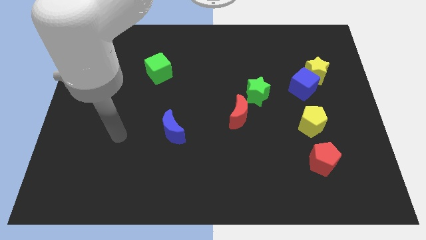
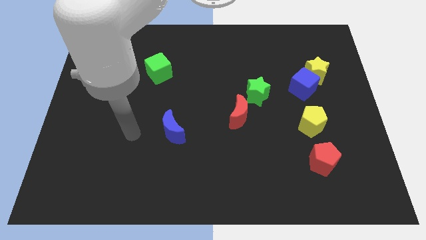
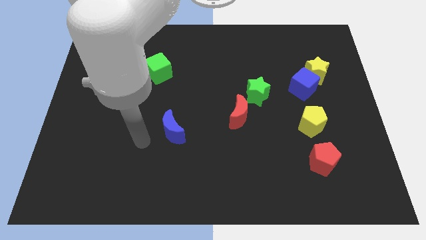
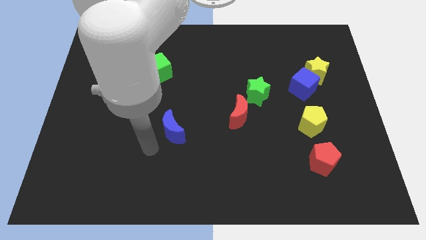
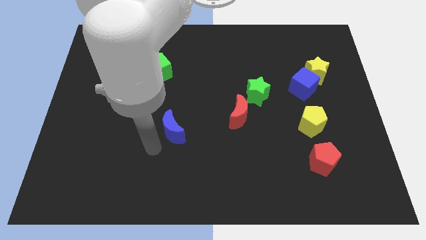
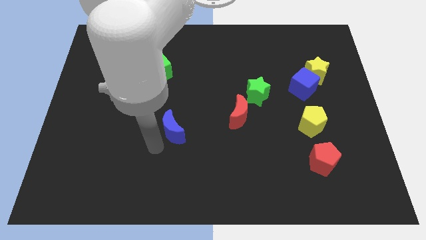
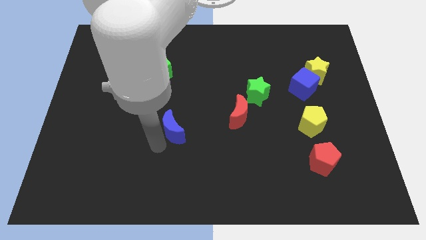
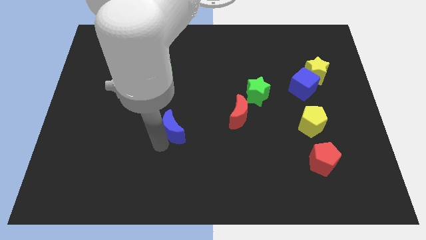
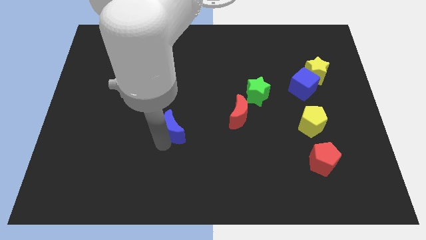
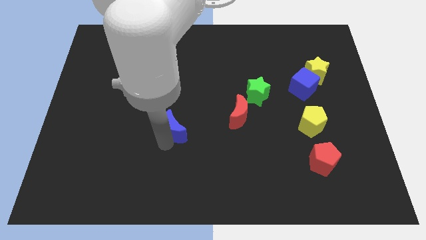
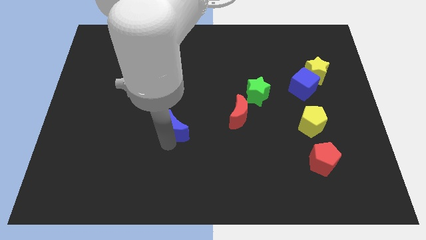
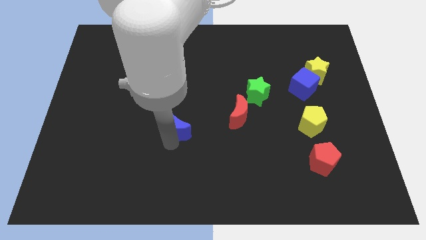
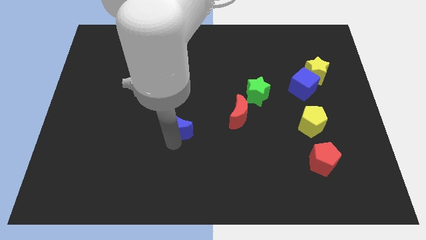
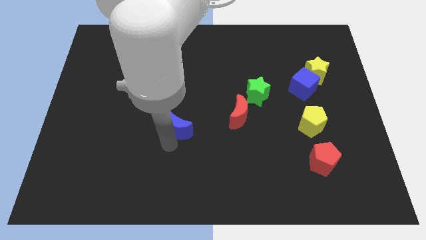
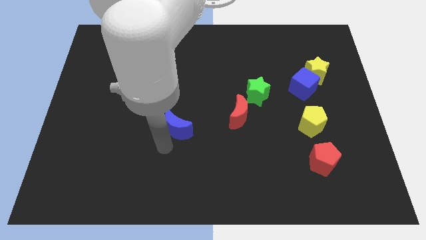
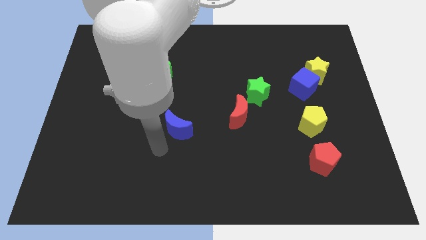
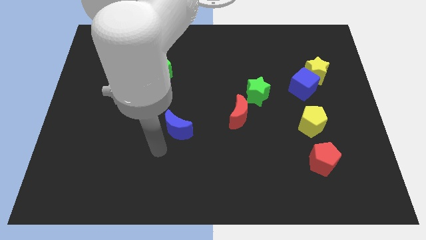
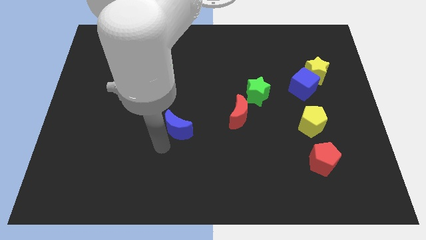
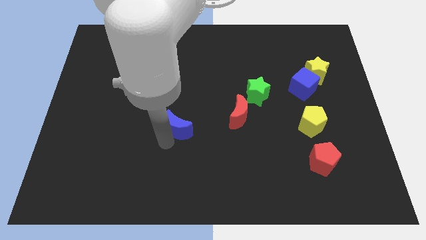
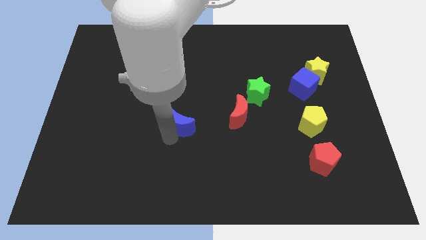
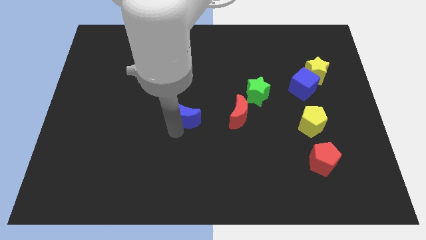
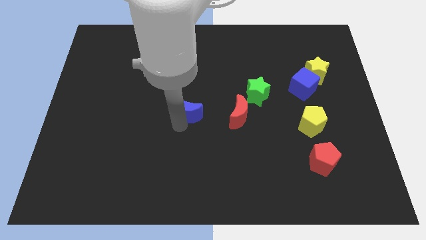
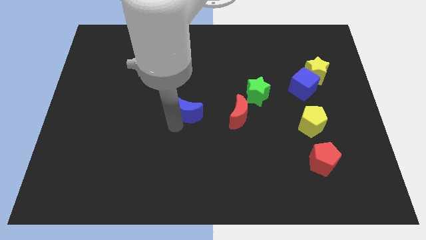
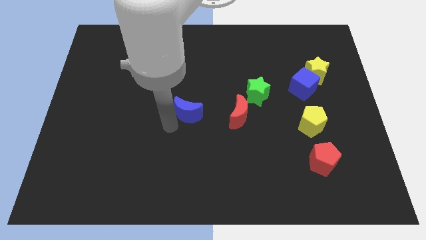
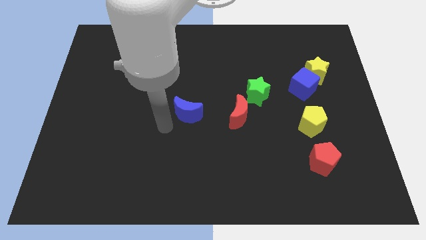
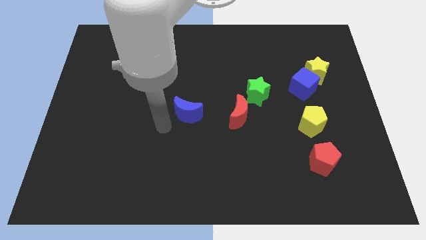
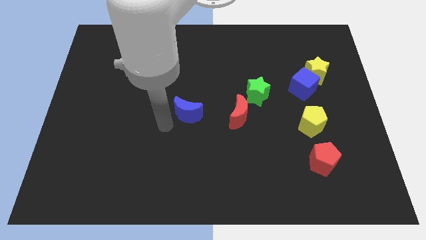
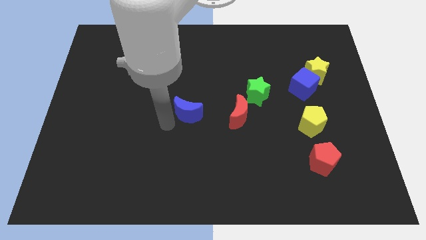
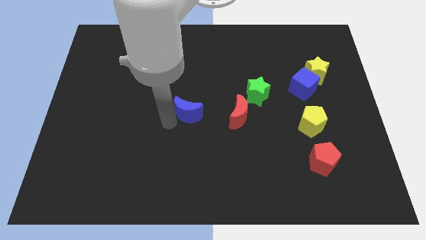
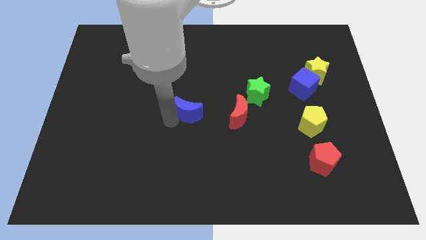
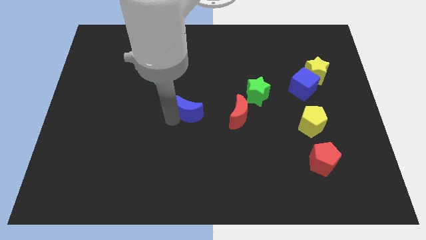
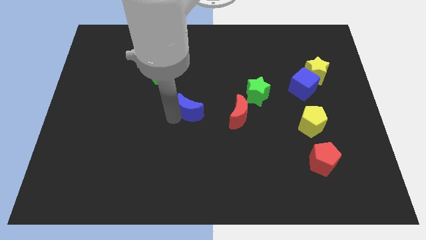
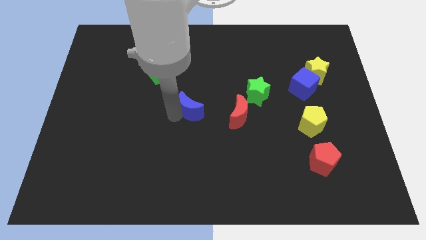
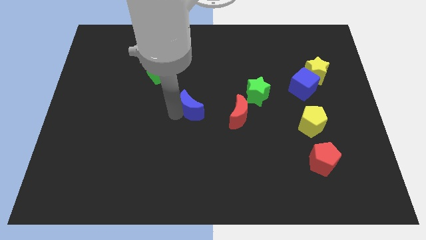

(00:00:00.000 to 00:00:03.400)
move the blue moon slightly diagonally up and right

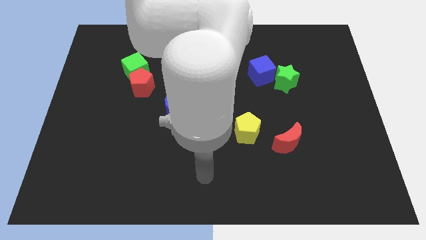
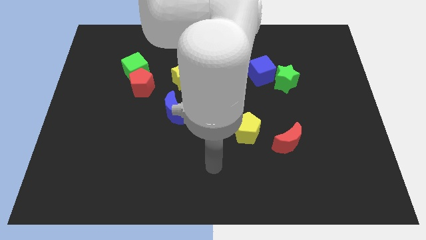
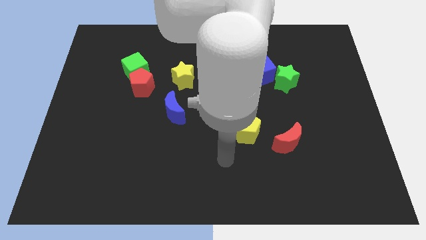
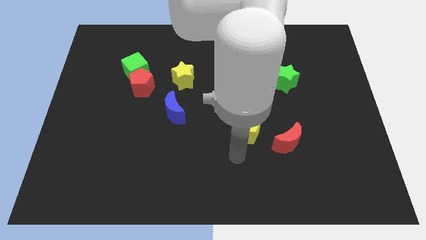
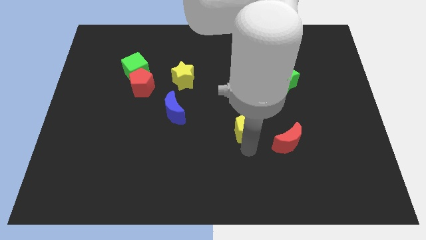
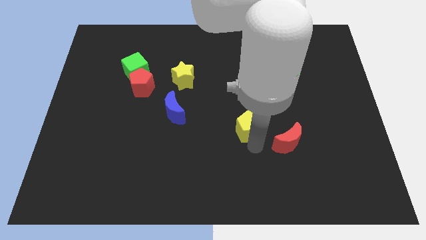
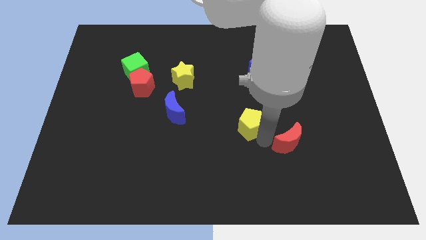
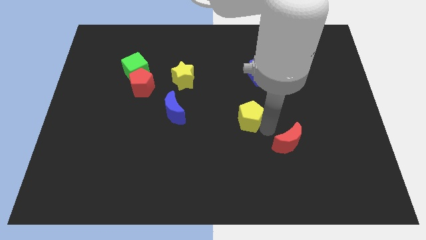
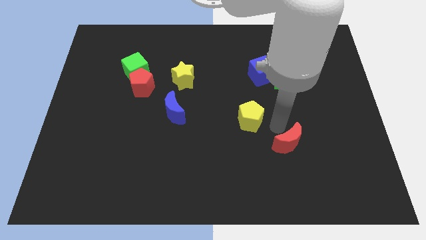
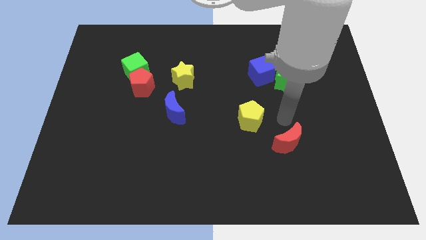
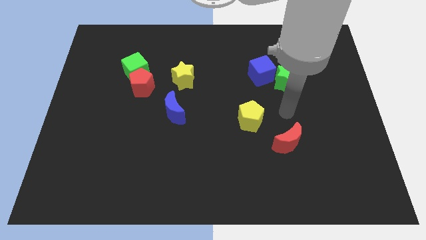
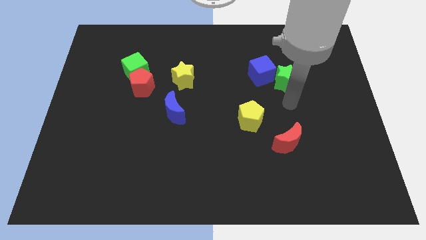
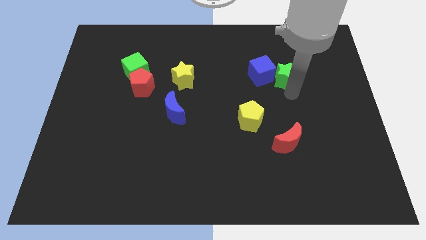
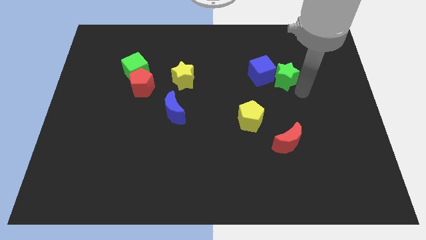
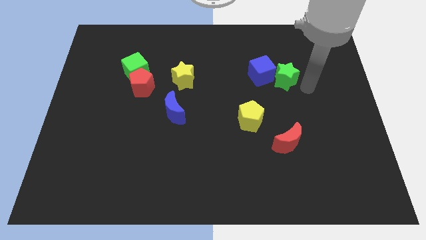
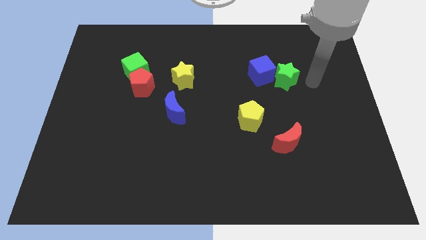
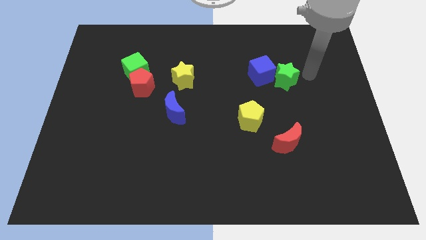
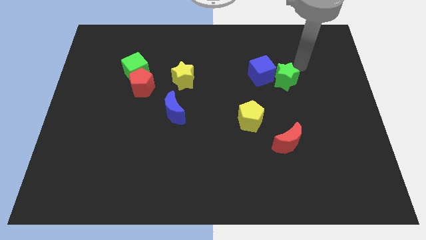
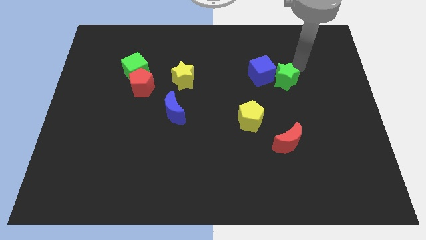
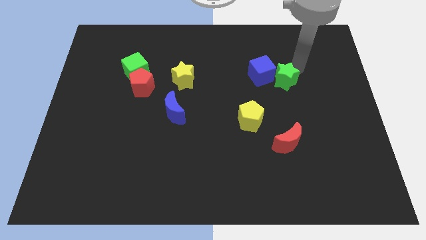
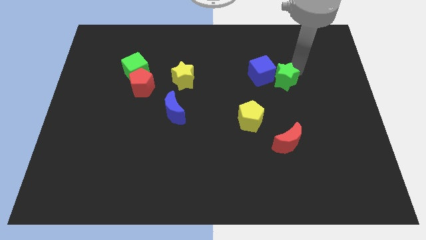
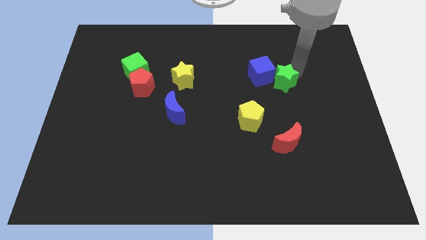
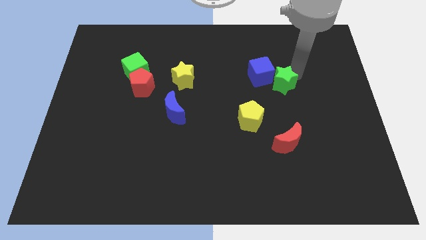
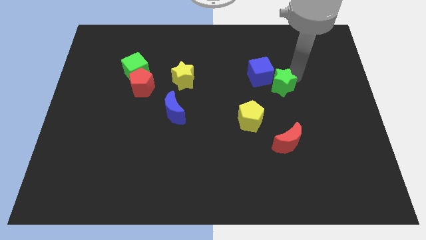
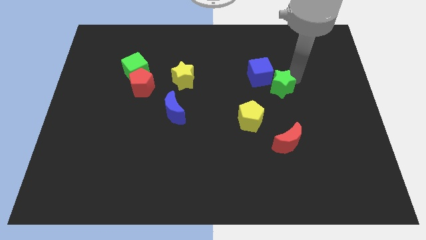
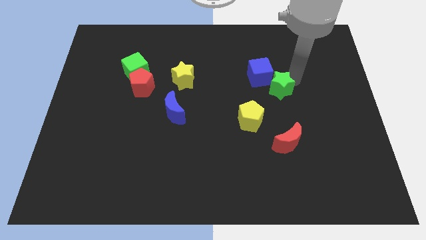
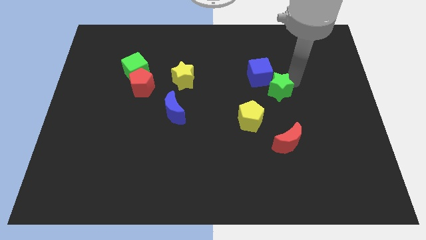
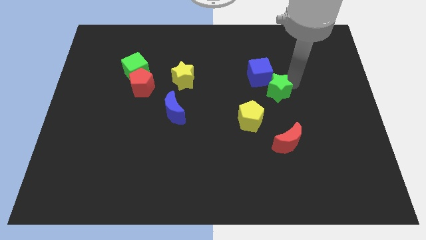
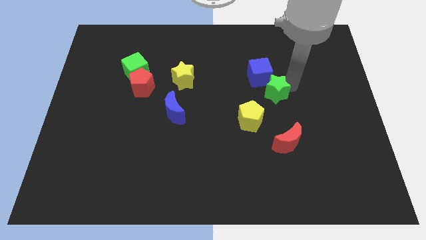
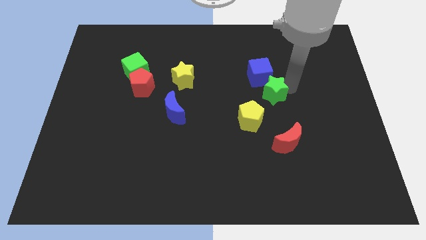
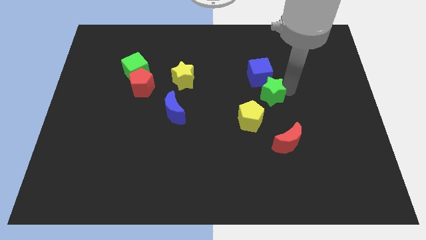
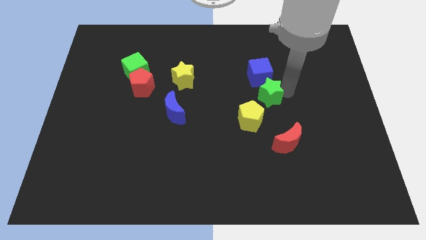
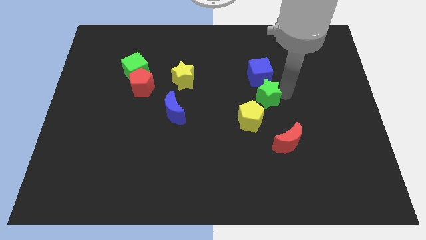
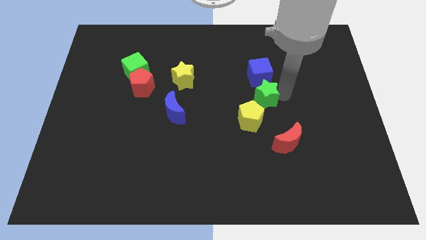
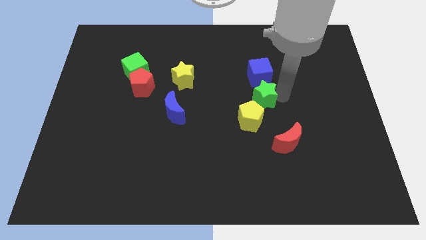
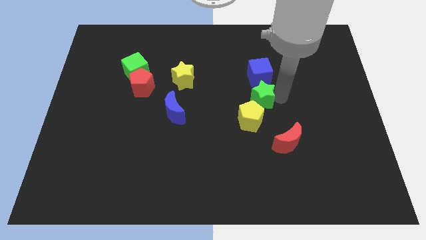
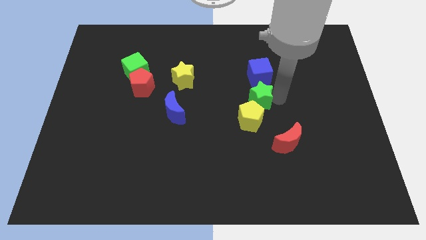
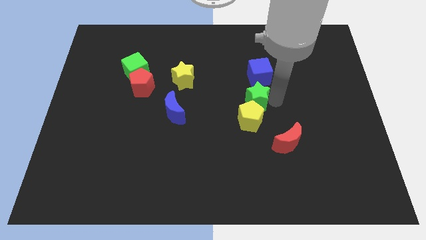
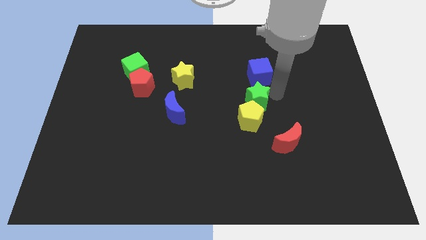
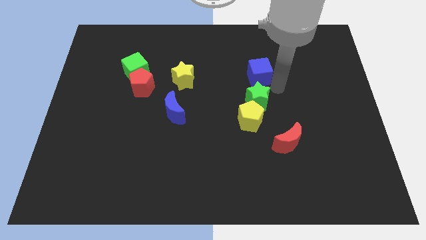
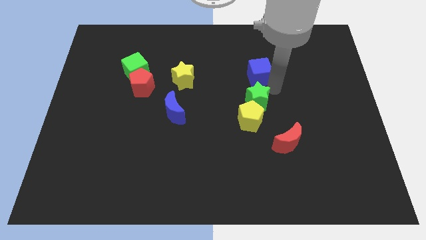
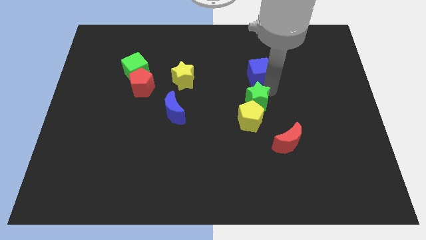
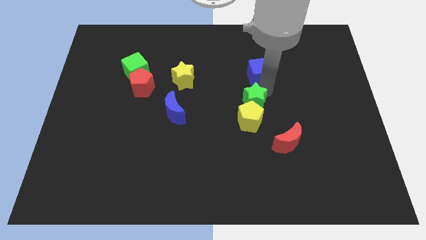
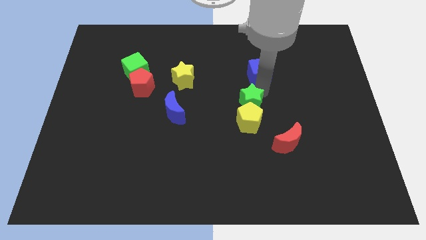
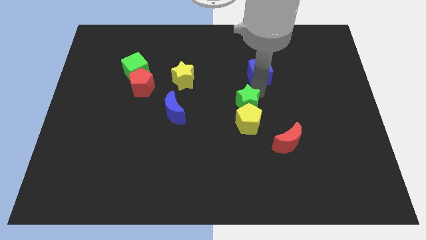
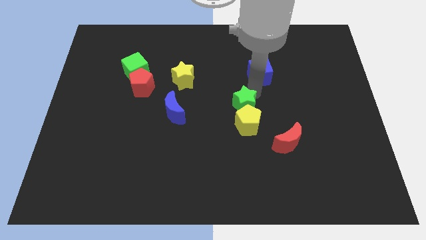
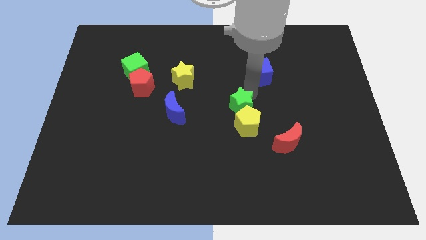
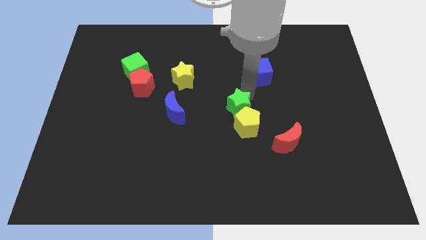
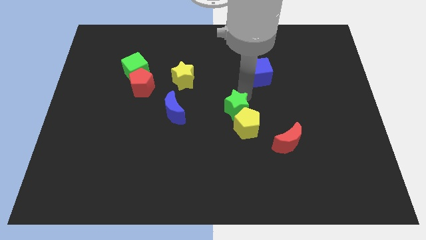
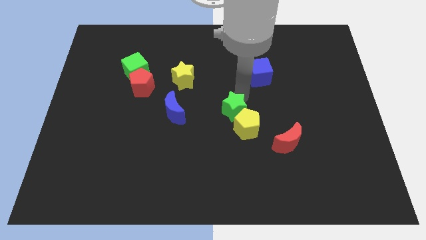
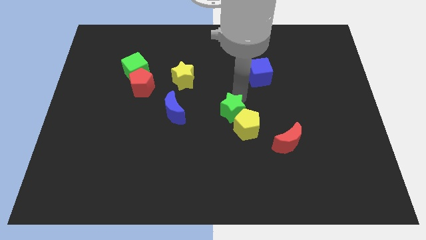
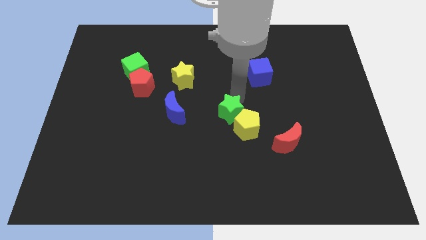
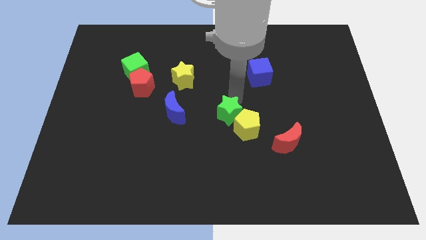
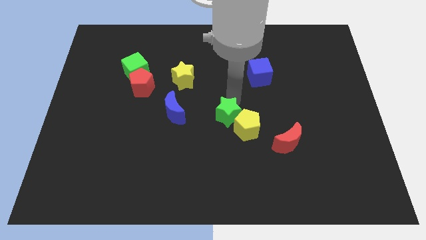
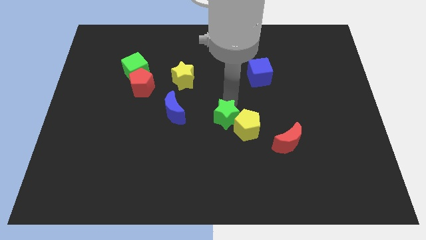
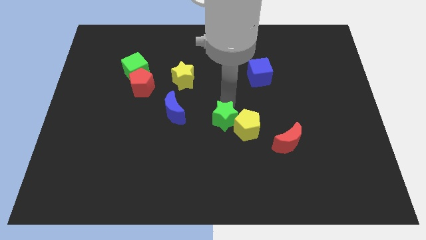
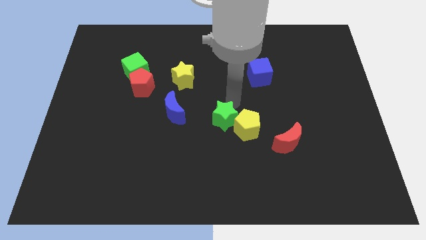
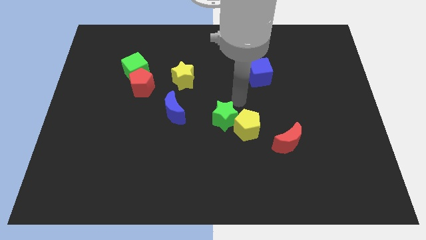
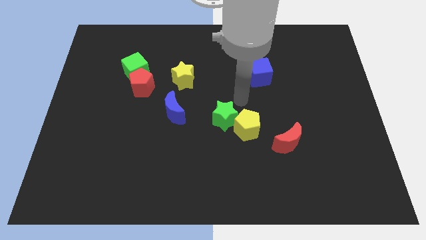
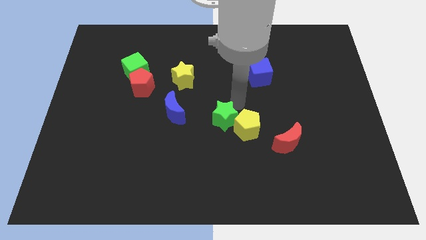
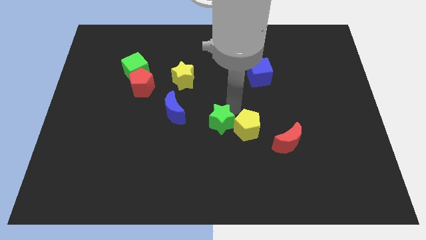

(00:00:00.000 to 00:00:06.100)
move the green star down and then to the left
